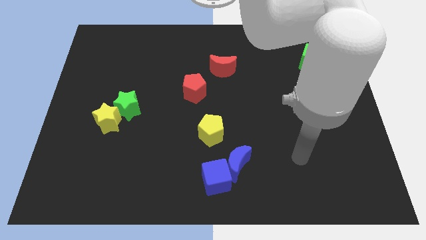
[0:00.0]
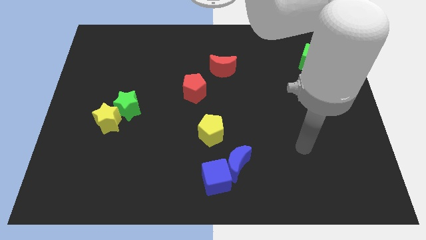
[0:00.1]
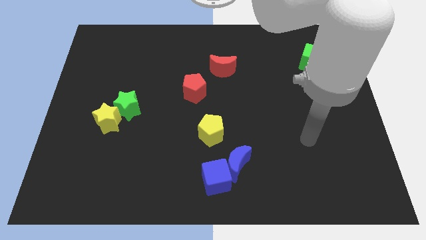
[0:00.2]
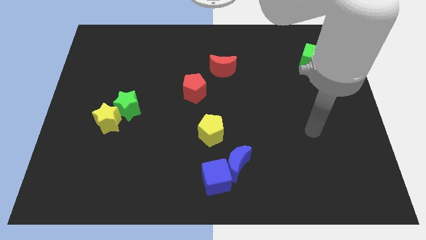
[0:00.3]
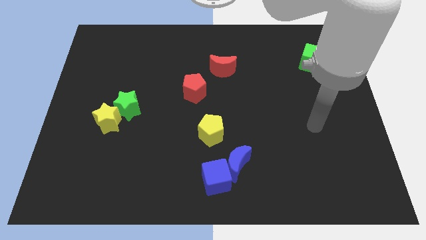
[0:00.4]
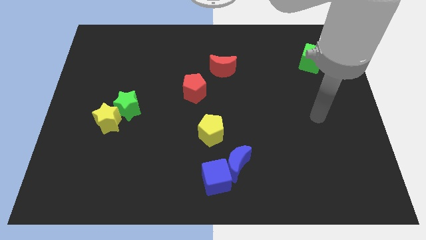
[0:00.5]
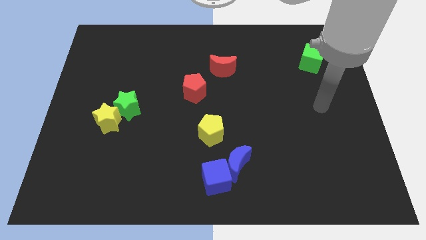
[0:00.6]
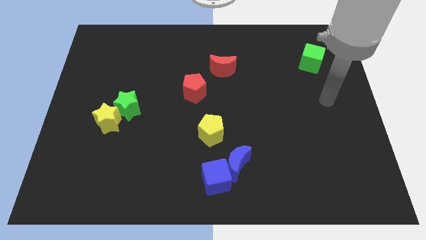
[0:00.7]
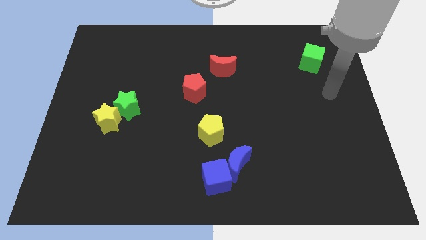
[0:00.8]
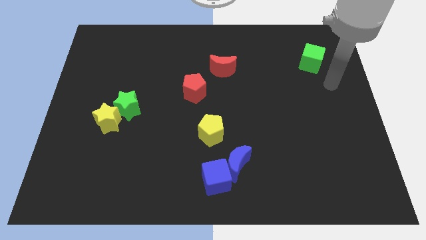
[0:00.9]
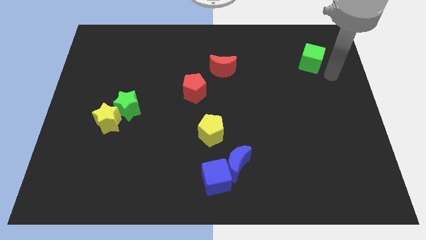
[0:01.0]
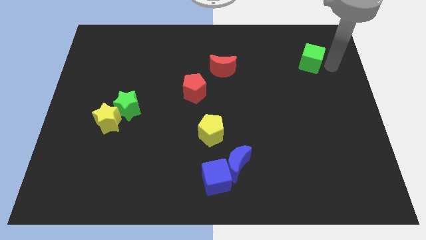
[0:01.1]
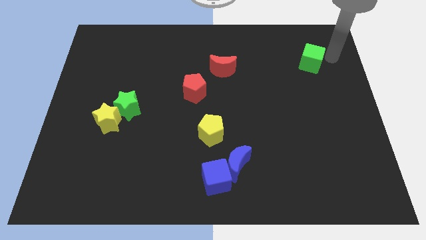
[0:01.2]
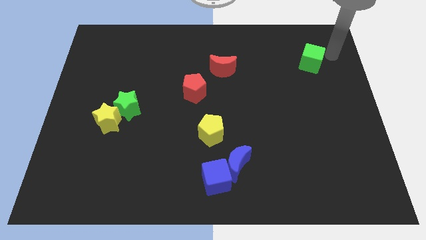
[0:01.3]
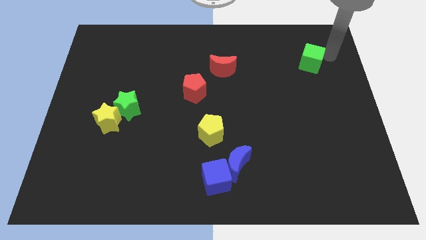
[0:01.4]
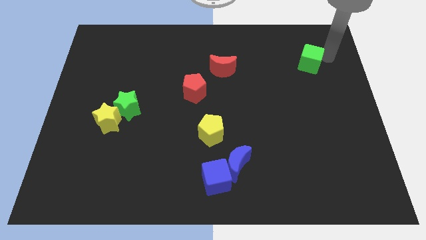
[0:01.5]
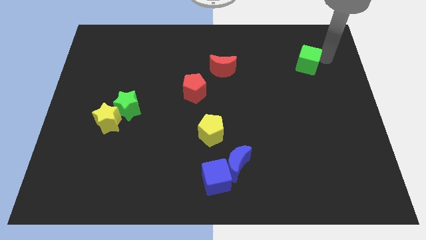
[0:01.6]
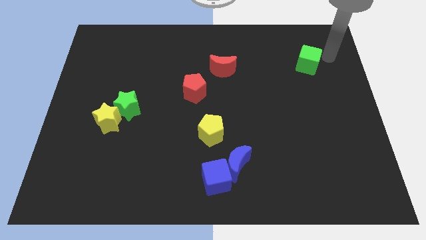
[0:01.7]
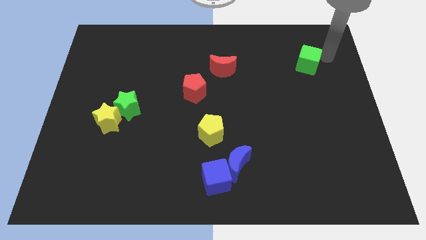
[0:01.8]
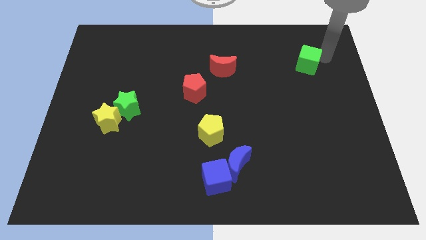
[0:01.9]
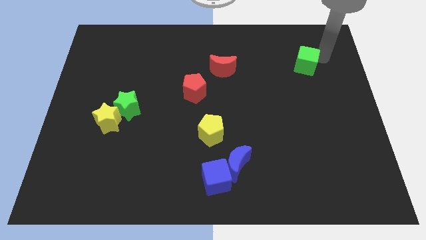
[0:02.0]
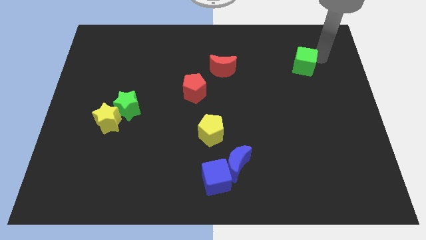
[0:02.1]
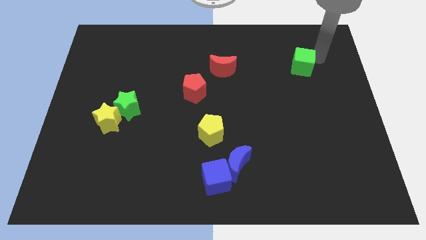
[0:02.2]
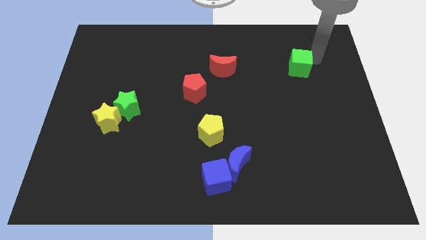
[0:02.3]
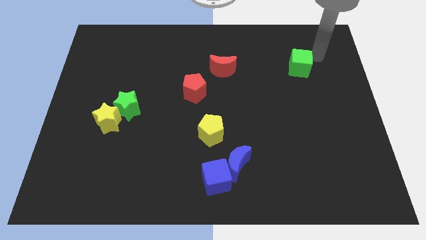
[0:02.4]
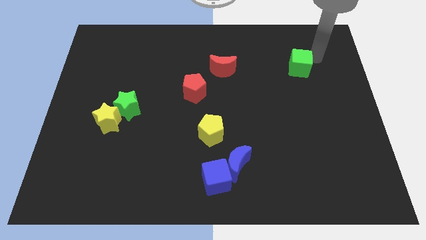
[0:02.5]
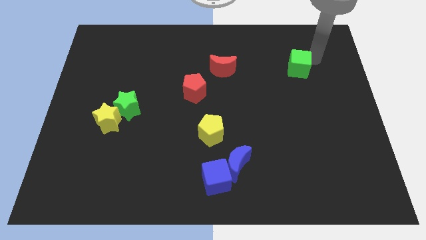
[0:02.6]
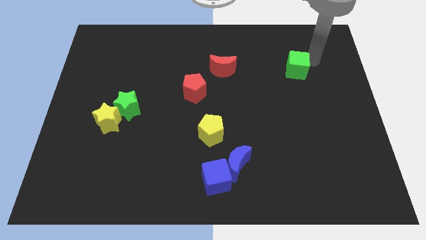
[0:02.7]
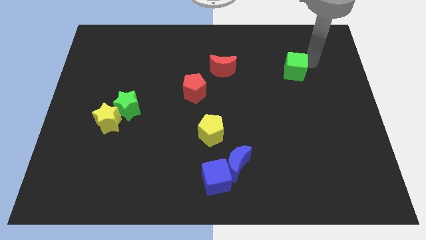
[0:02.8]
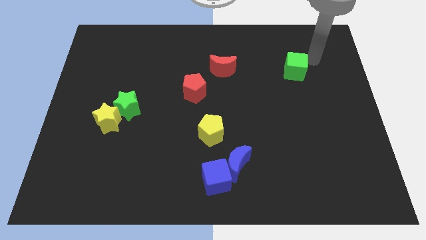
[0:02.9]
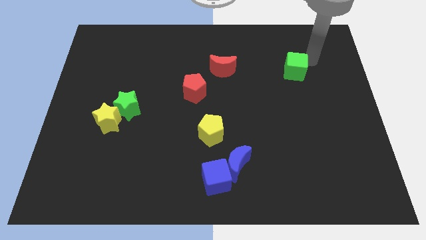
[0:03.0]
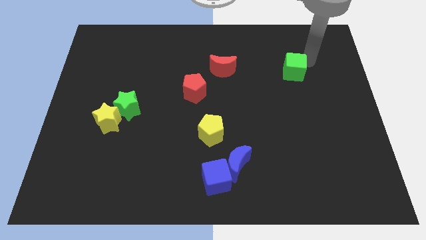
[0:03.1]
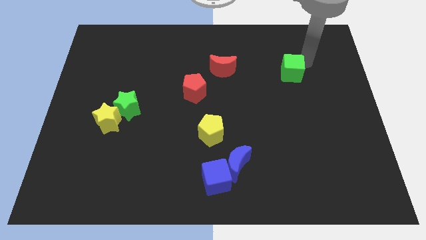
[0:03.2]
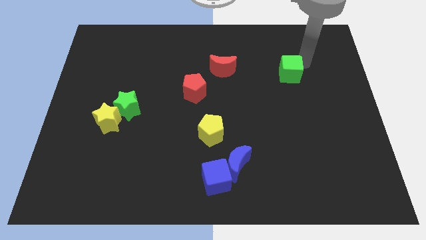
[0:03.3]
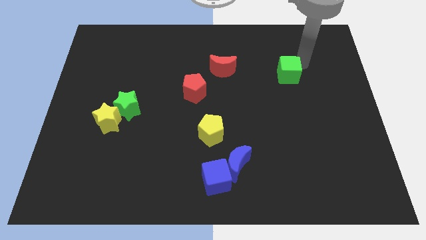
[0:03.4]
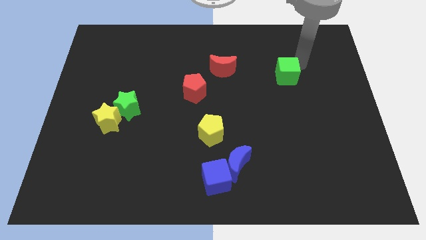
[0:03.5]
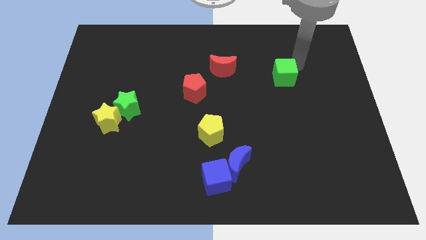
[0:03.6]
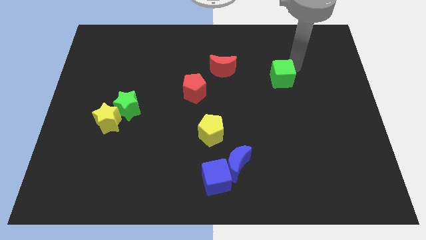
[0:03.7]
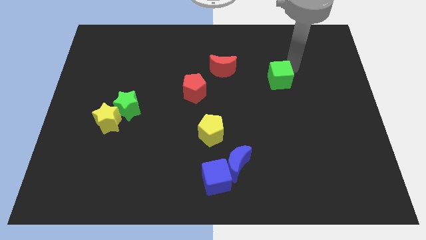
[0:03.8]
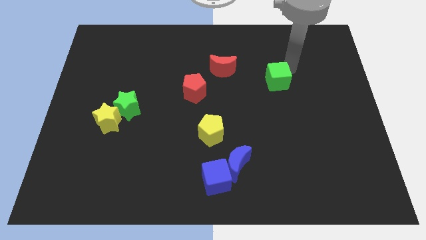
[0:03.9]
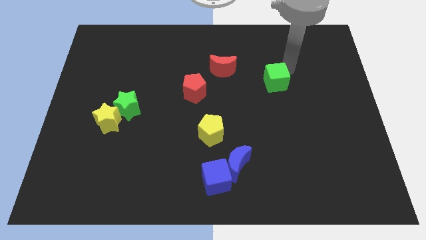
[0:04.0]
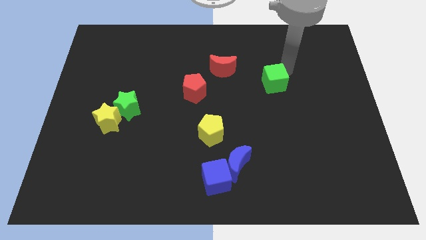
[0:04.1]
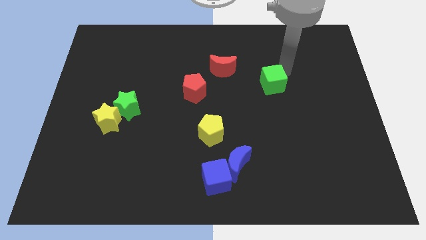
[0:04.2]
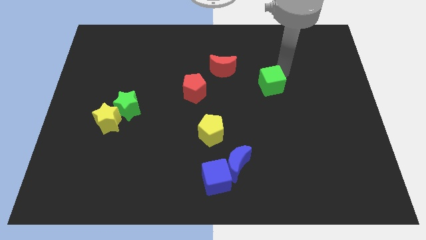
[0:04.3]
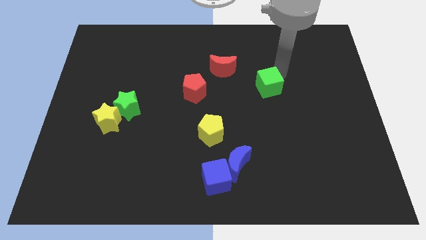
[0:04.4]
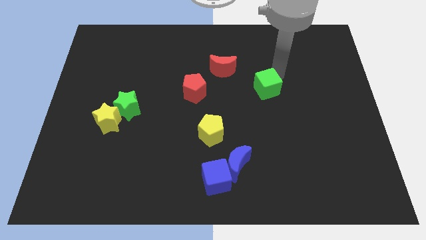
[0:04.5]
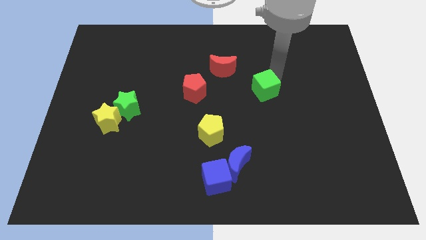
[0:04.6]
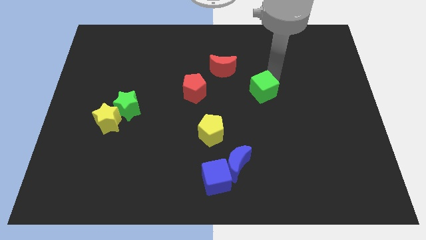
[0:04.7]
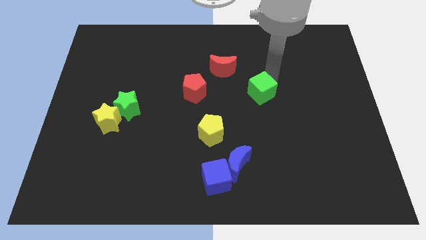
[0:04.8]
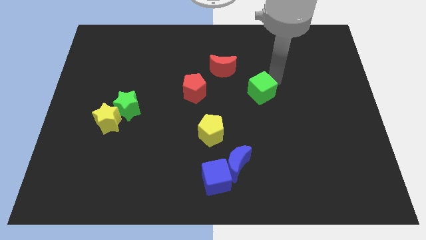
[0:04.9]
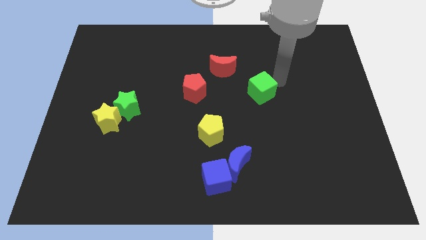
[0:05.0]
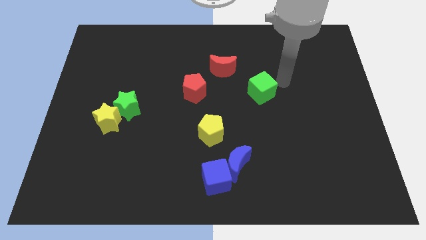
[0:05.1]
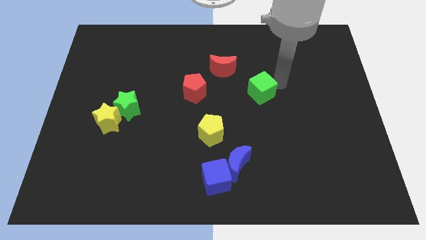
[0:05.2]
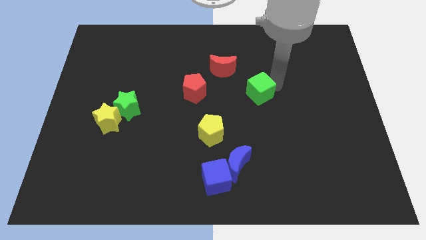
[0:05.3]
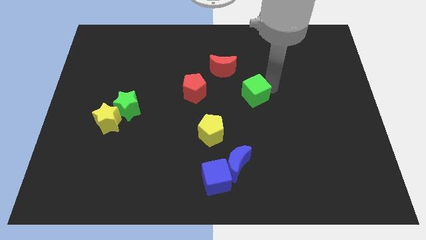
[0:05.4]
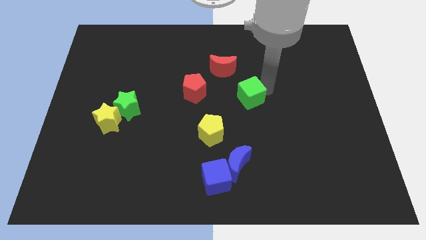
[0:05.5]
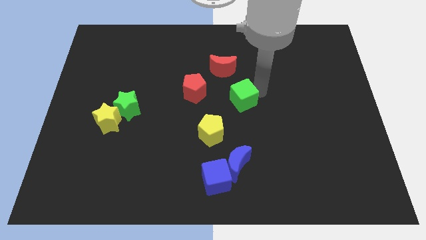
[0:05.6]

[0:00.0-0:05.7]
put the green cube diagonally up and to the right of the yellow pentagon

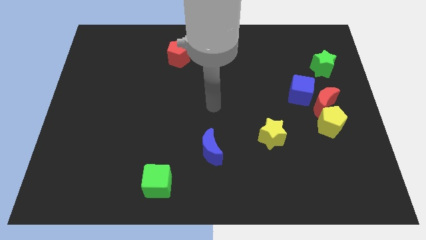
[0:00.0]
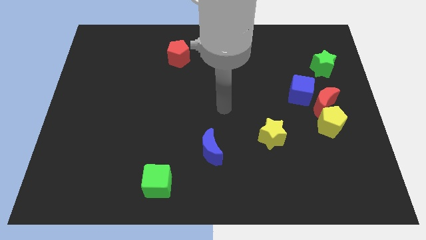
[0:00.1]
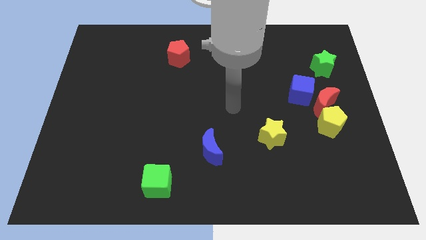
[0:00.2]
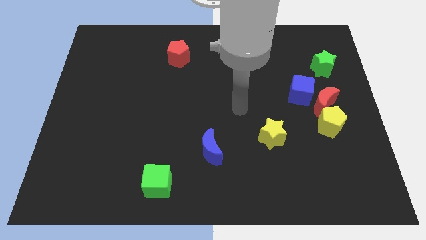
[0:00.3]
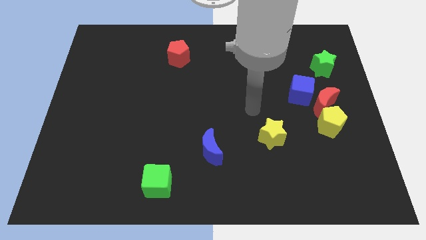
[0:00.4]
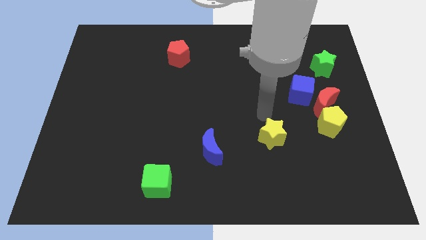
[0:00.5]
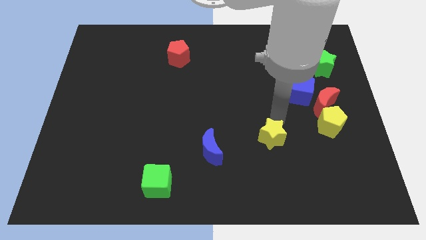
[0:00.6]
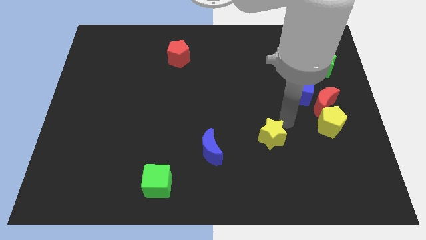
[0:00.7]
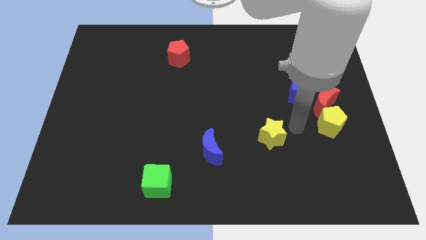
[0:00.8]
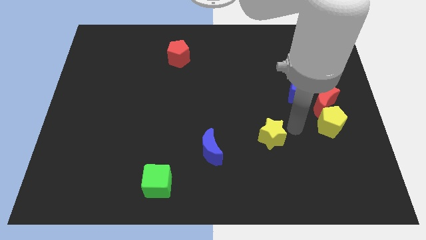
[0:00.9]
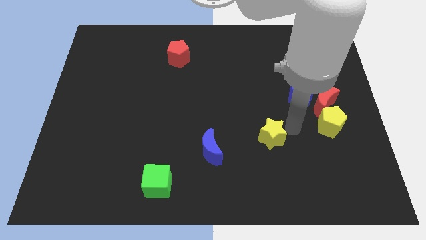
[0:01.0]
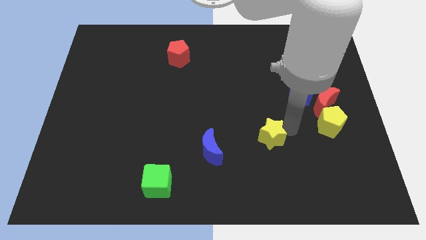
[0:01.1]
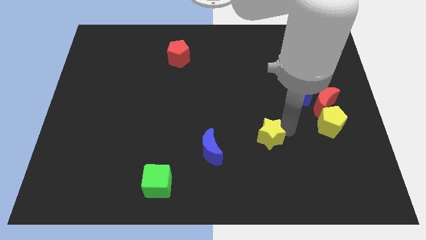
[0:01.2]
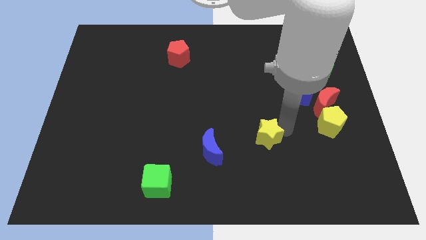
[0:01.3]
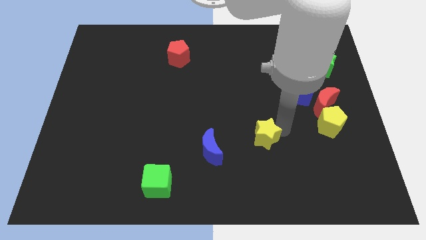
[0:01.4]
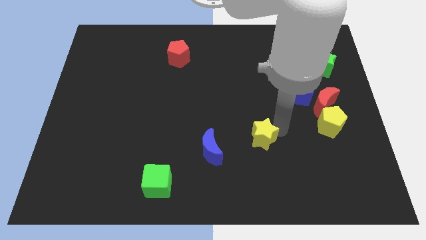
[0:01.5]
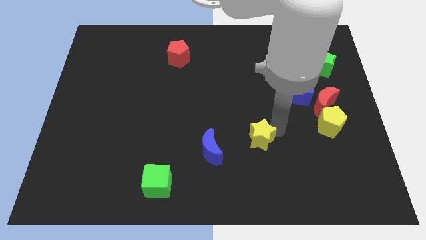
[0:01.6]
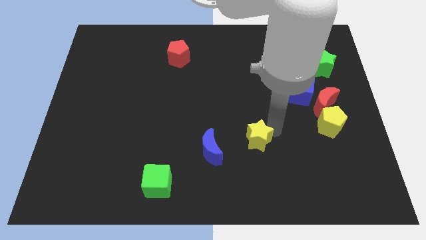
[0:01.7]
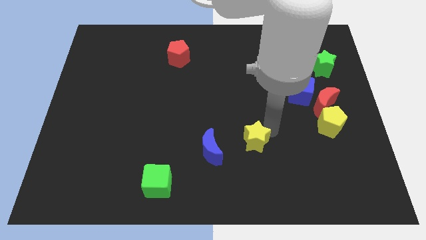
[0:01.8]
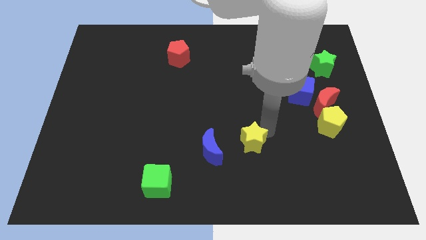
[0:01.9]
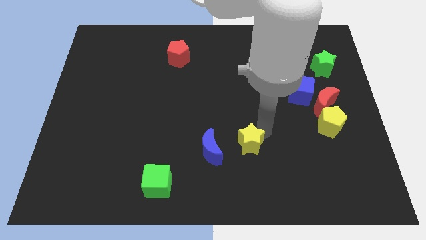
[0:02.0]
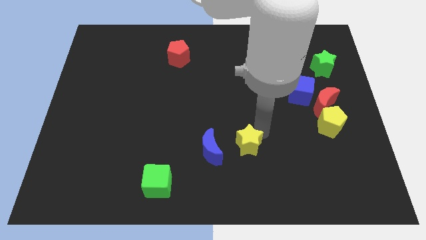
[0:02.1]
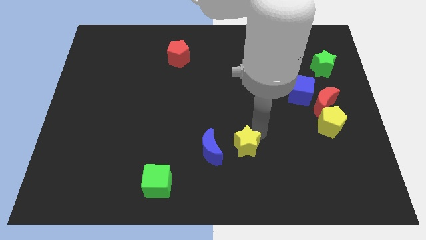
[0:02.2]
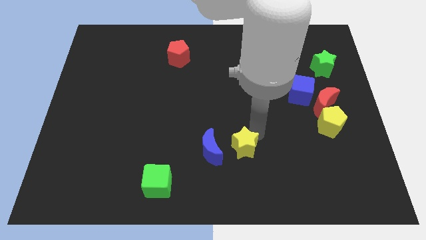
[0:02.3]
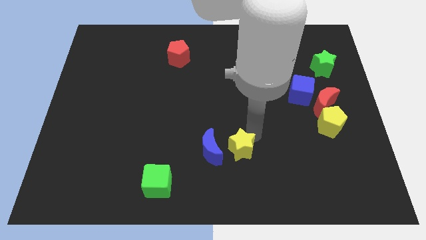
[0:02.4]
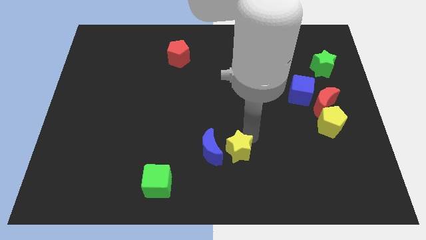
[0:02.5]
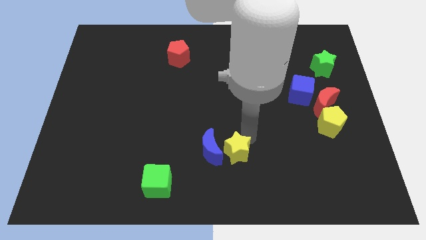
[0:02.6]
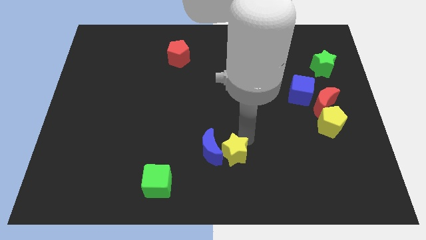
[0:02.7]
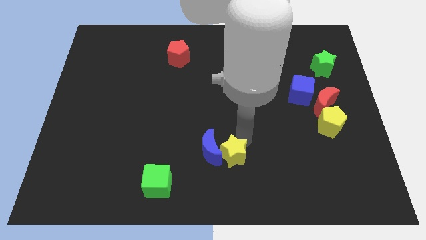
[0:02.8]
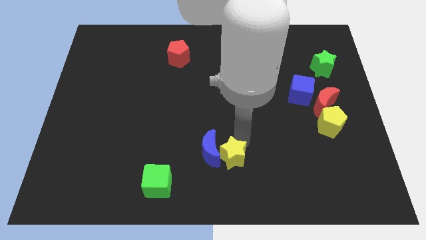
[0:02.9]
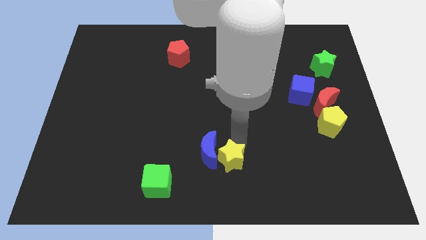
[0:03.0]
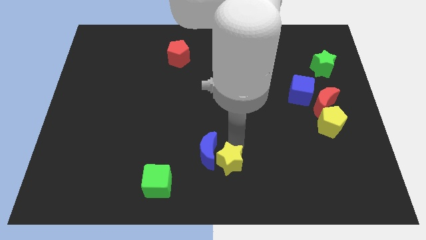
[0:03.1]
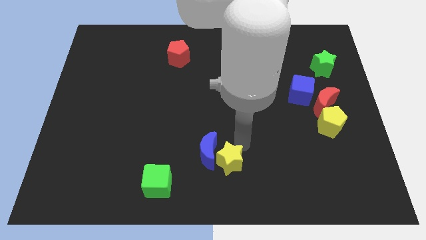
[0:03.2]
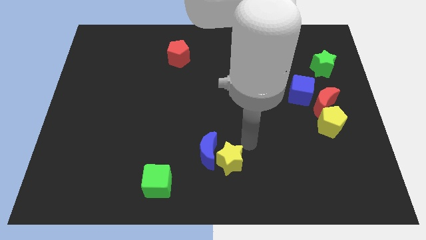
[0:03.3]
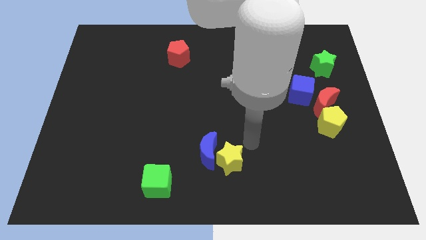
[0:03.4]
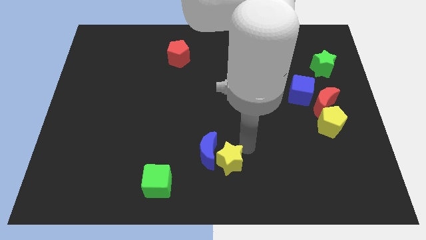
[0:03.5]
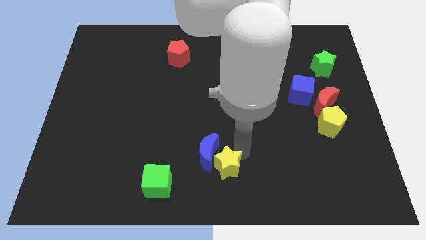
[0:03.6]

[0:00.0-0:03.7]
move the yellow star right of the green cube
